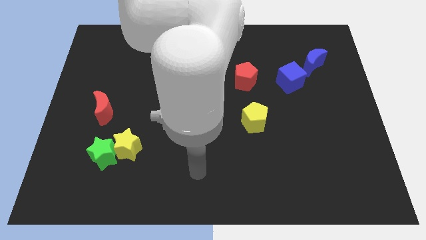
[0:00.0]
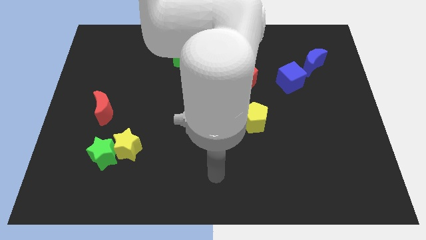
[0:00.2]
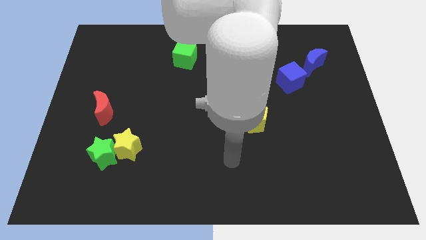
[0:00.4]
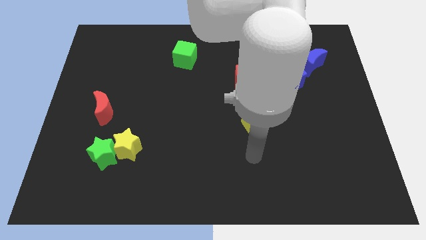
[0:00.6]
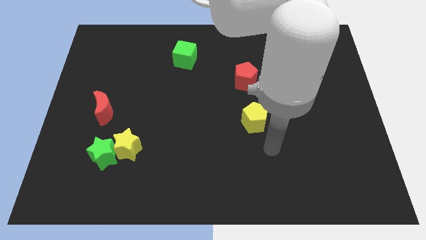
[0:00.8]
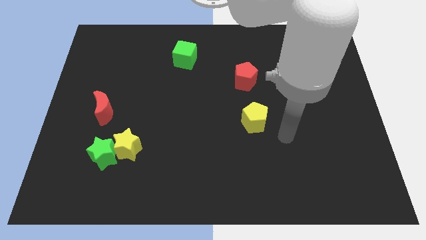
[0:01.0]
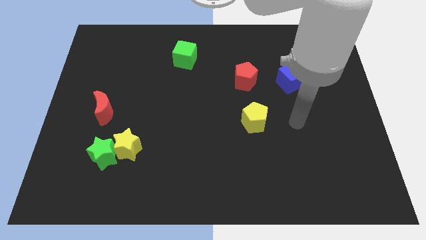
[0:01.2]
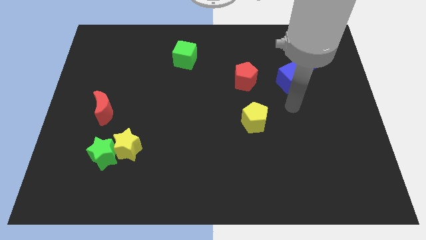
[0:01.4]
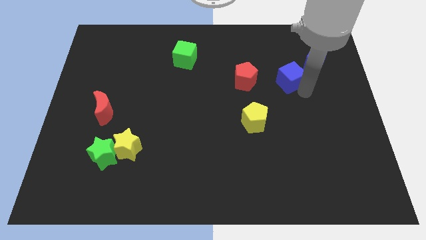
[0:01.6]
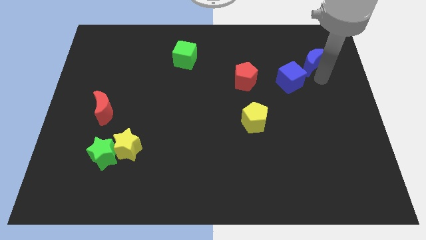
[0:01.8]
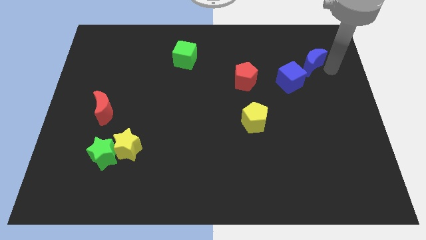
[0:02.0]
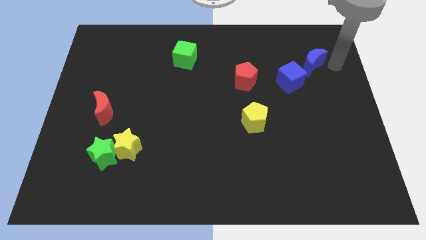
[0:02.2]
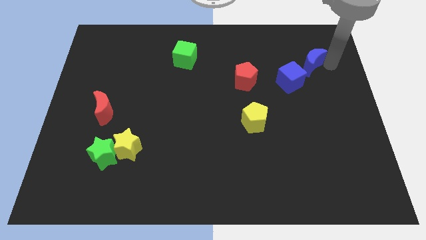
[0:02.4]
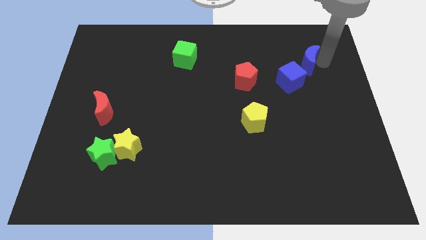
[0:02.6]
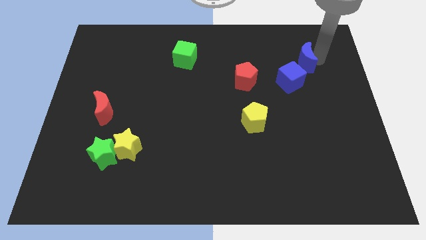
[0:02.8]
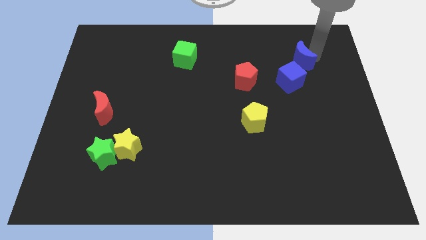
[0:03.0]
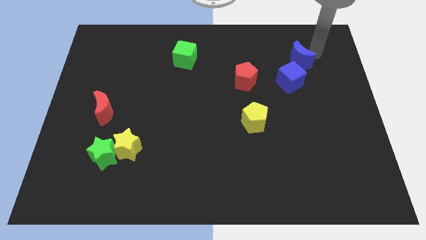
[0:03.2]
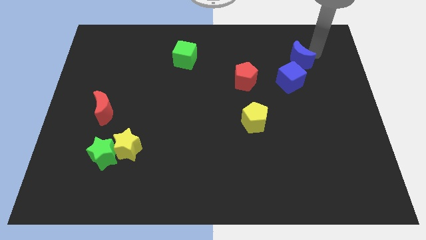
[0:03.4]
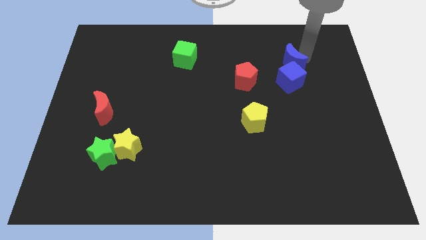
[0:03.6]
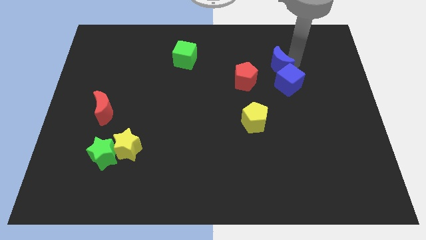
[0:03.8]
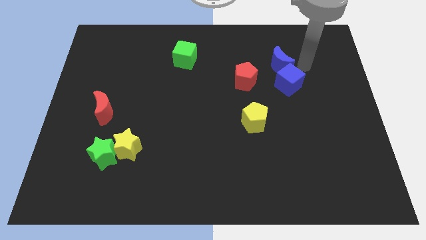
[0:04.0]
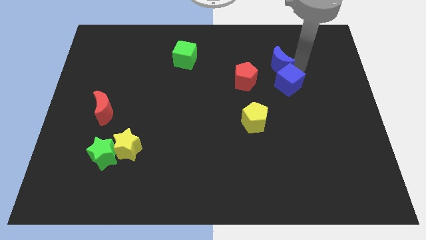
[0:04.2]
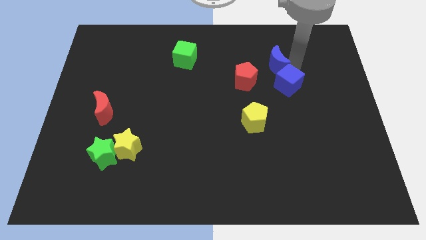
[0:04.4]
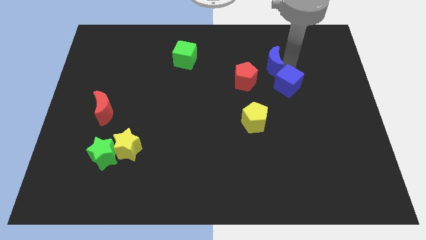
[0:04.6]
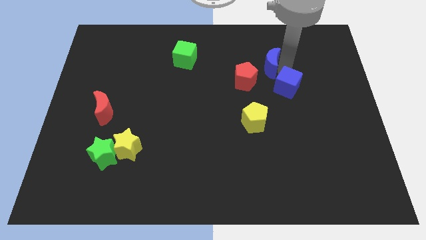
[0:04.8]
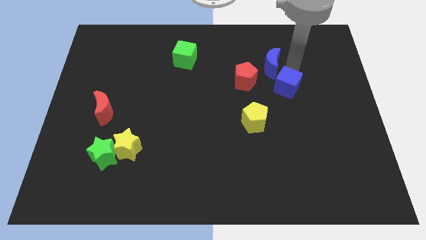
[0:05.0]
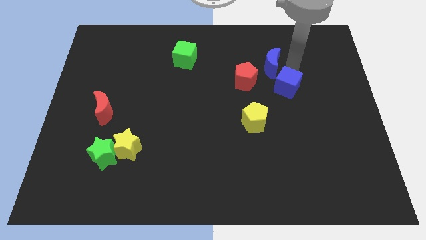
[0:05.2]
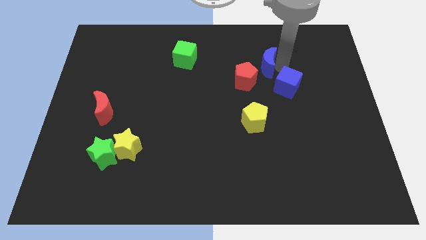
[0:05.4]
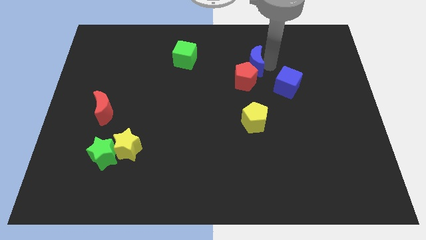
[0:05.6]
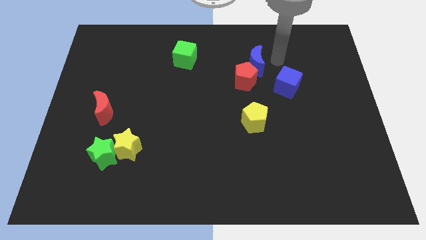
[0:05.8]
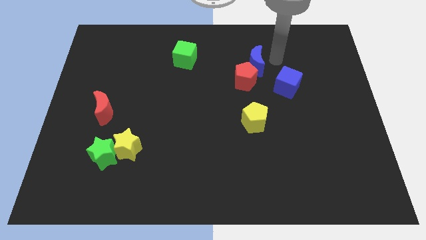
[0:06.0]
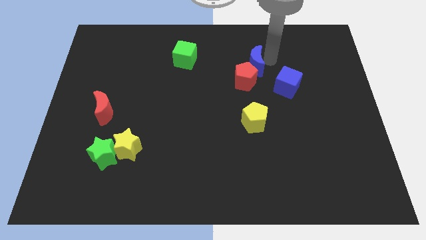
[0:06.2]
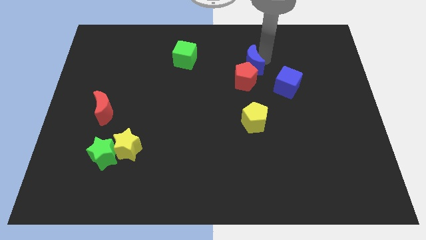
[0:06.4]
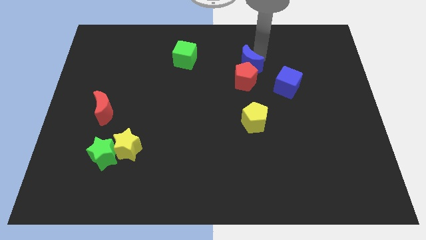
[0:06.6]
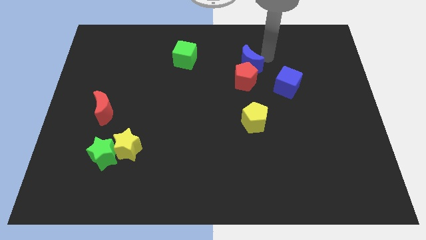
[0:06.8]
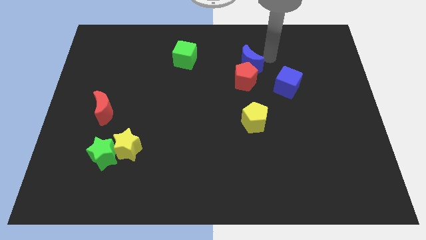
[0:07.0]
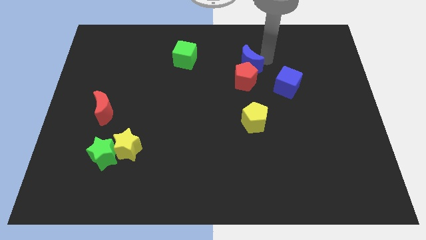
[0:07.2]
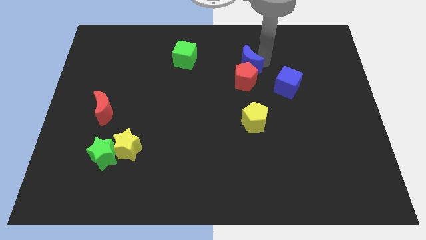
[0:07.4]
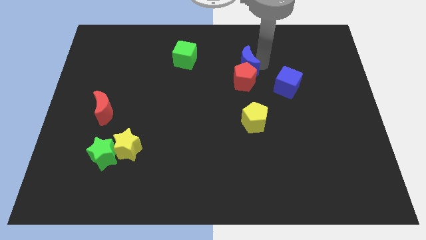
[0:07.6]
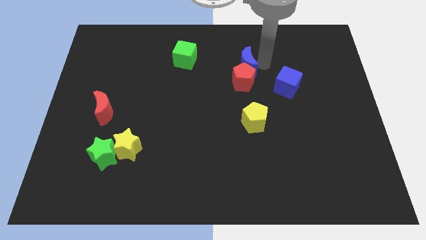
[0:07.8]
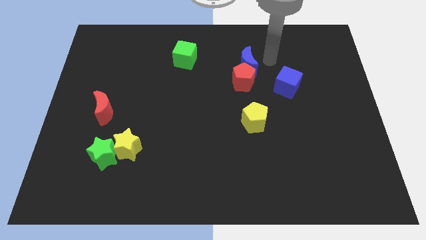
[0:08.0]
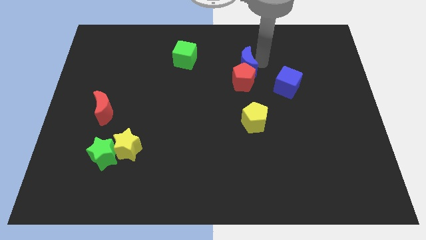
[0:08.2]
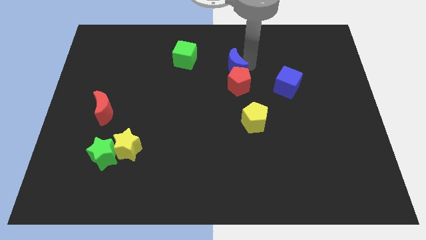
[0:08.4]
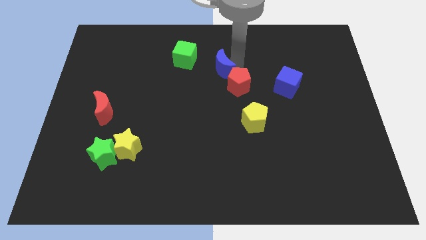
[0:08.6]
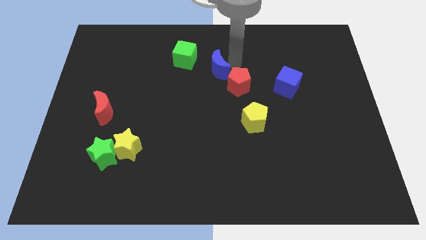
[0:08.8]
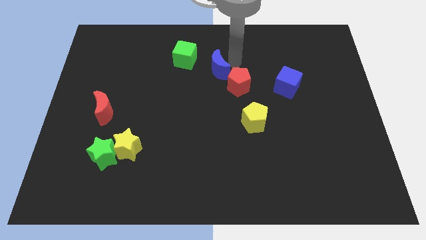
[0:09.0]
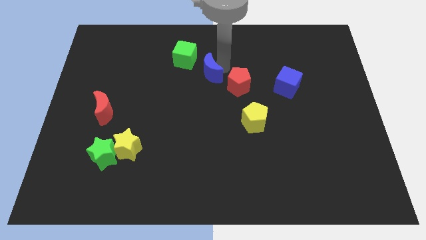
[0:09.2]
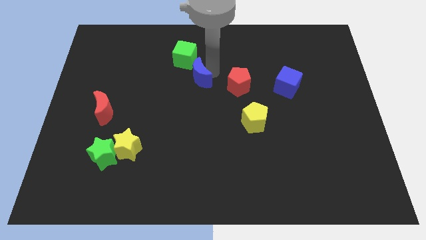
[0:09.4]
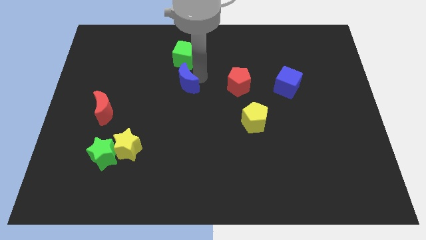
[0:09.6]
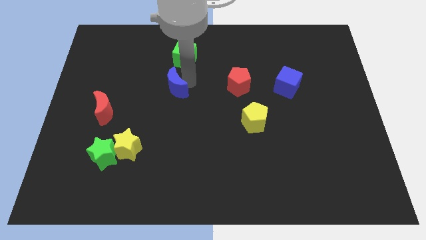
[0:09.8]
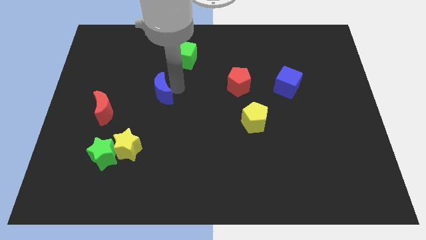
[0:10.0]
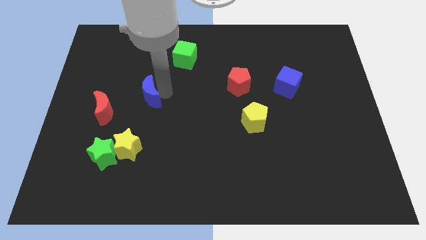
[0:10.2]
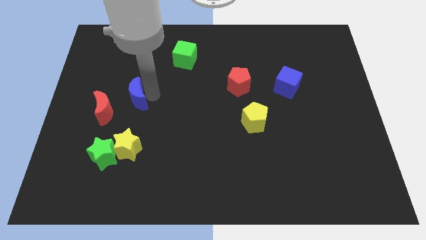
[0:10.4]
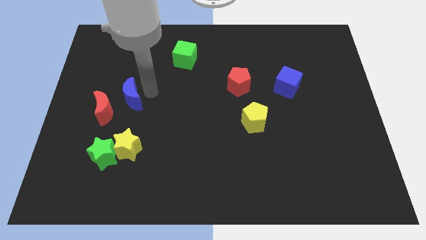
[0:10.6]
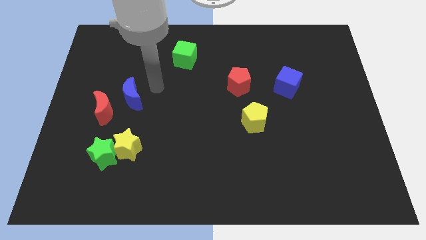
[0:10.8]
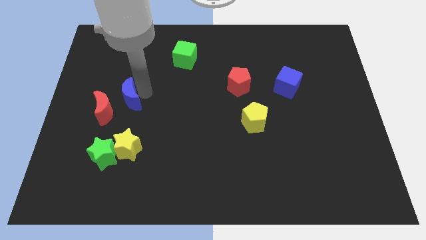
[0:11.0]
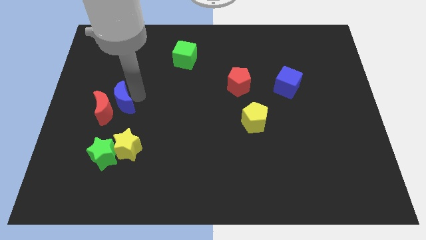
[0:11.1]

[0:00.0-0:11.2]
put the blue moon to the red moon

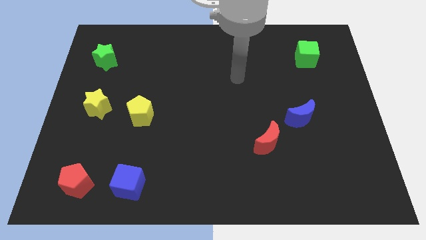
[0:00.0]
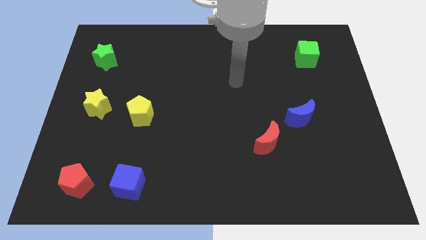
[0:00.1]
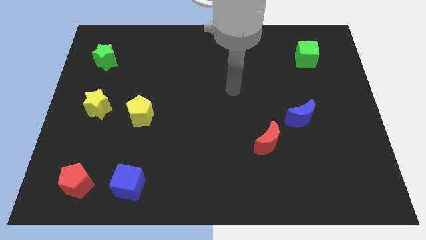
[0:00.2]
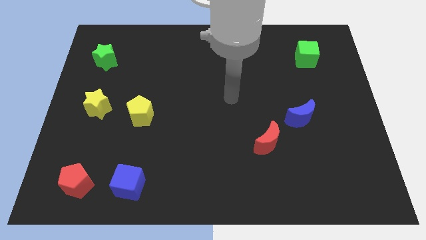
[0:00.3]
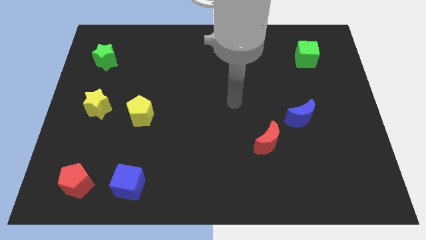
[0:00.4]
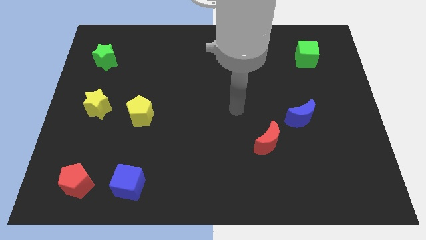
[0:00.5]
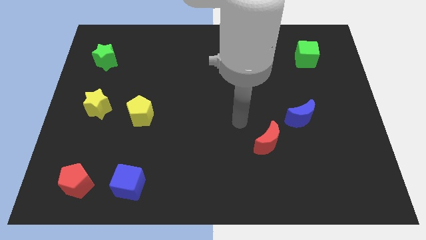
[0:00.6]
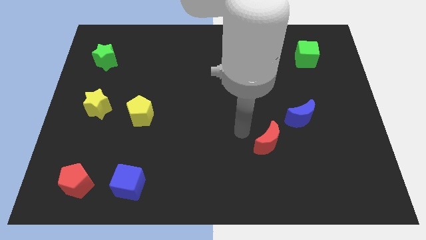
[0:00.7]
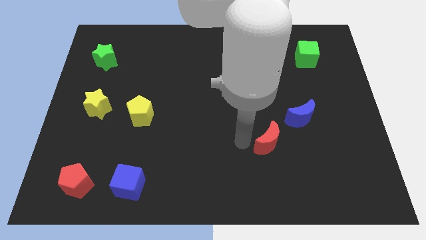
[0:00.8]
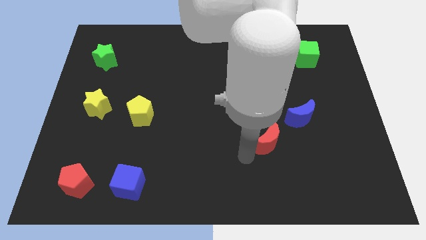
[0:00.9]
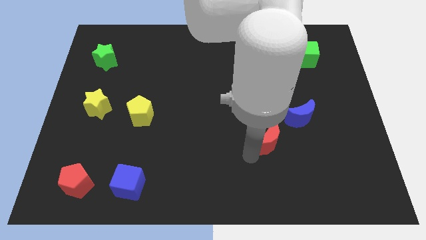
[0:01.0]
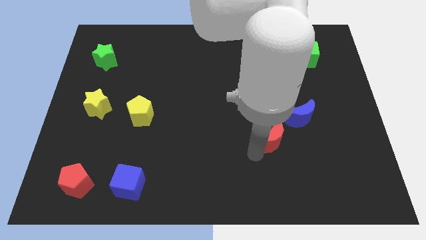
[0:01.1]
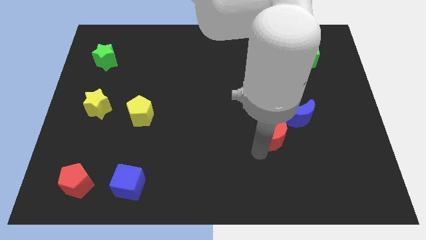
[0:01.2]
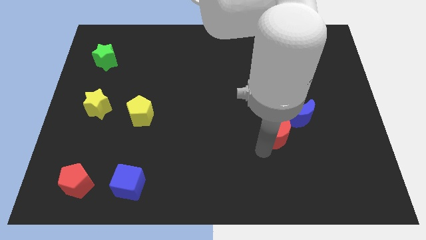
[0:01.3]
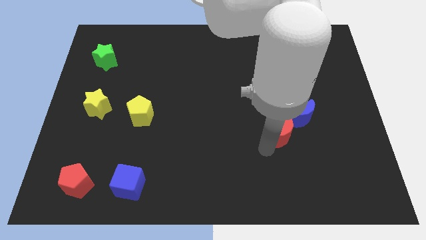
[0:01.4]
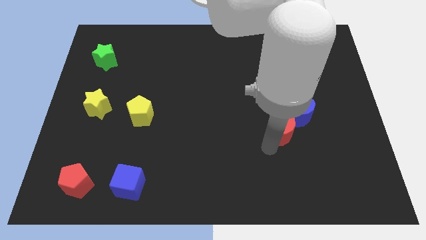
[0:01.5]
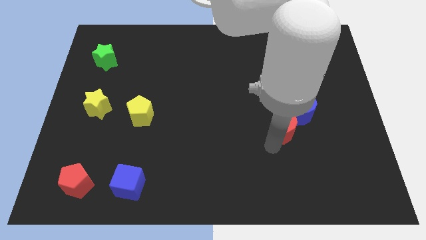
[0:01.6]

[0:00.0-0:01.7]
slide the red moon next to the blue moon
